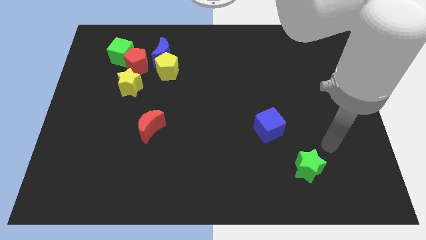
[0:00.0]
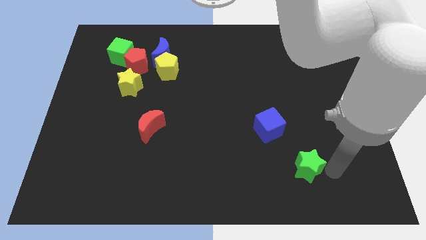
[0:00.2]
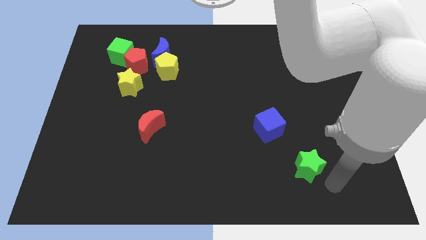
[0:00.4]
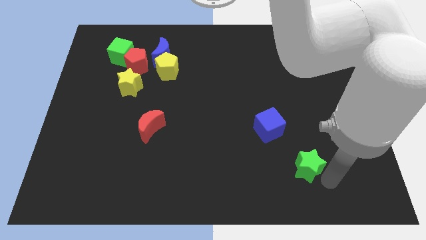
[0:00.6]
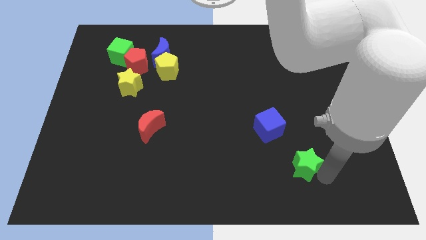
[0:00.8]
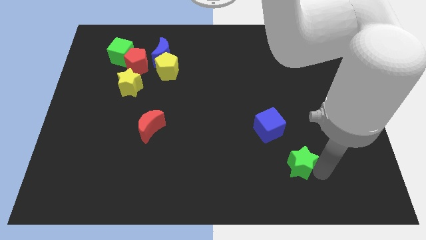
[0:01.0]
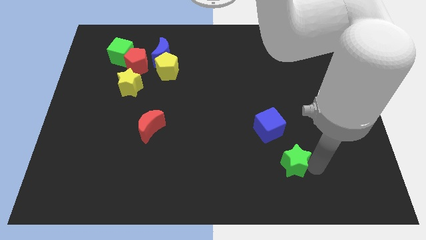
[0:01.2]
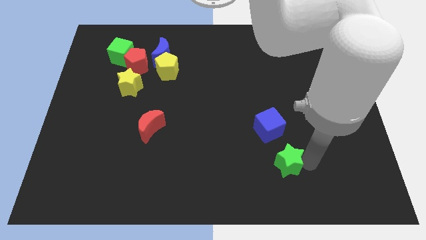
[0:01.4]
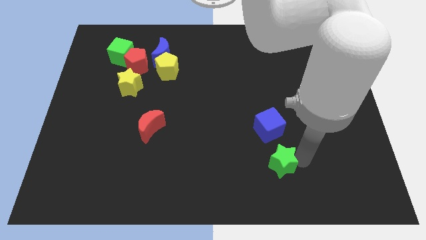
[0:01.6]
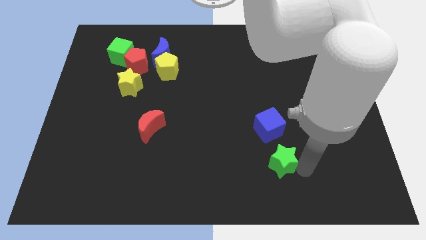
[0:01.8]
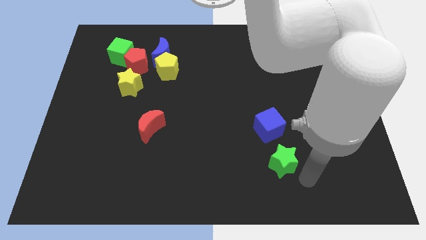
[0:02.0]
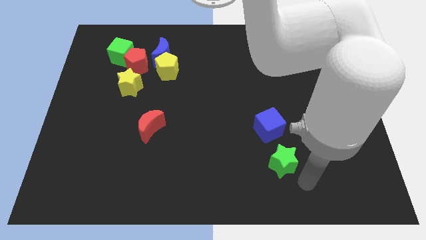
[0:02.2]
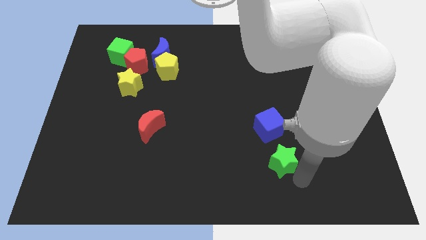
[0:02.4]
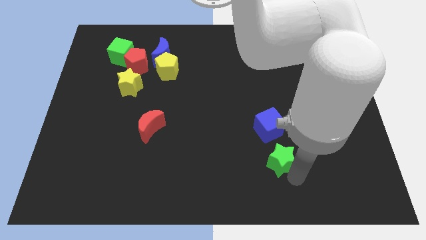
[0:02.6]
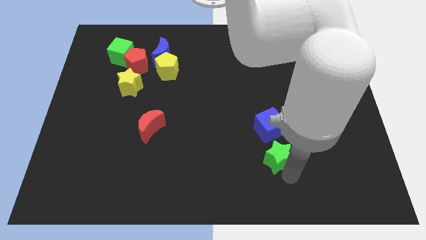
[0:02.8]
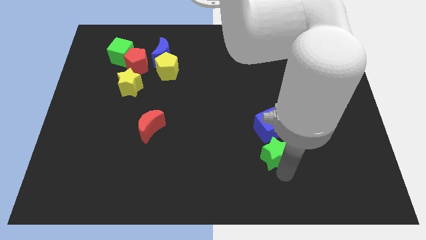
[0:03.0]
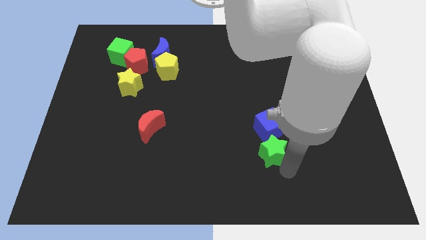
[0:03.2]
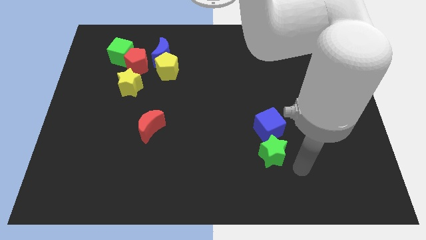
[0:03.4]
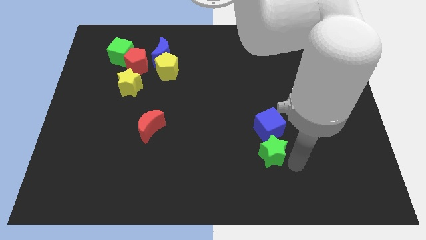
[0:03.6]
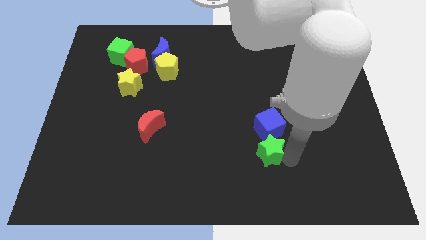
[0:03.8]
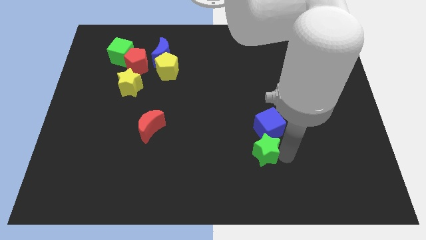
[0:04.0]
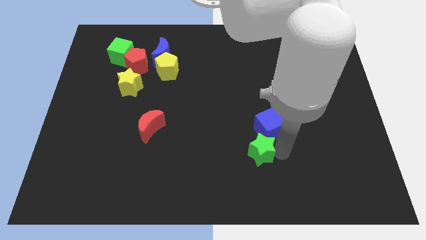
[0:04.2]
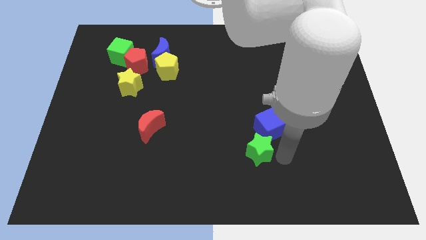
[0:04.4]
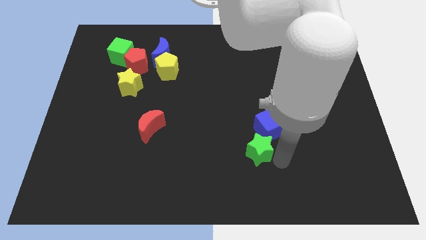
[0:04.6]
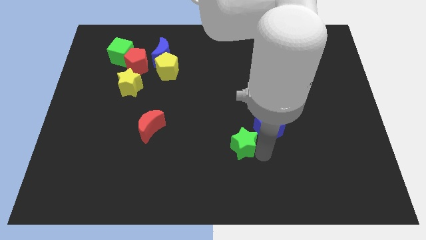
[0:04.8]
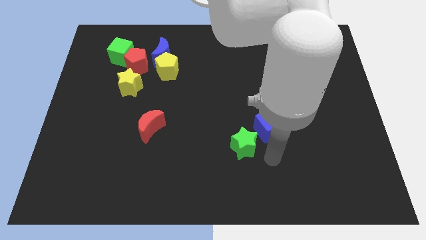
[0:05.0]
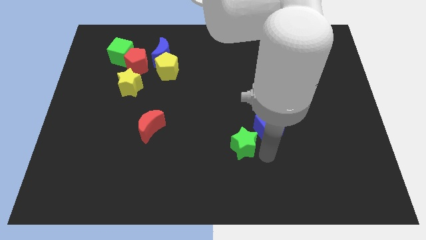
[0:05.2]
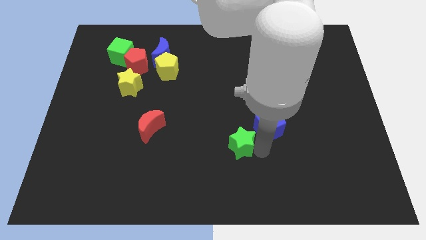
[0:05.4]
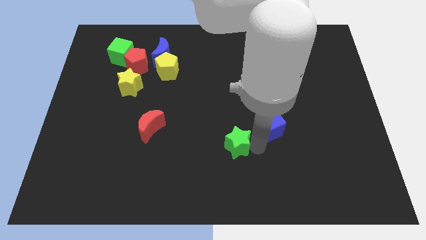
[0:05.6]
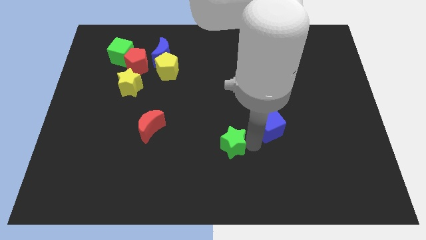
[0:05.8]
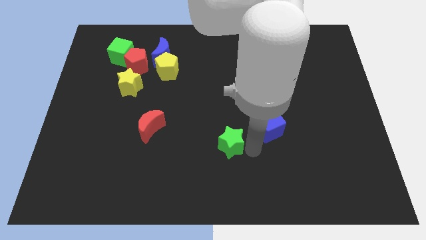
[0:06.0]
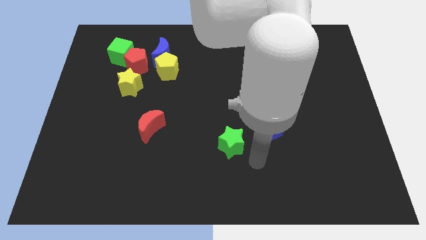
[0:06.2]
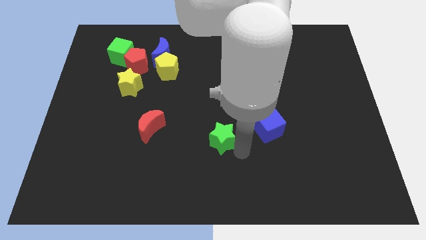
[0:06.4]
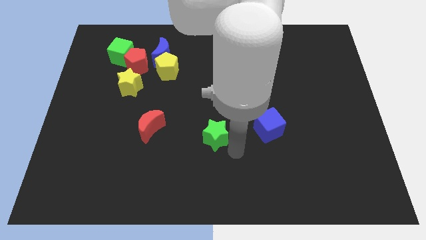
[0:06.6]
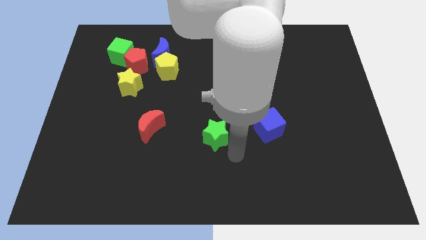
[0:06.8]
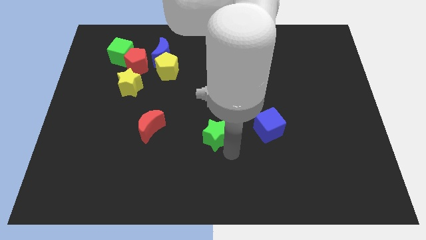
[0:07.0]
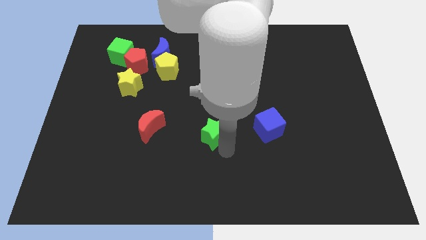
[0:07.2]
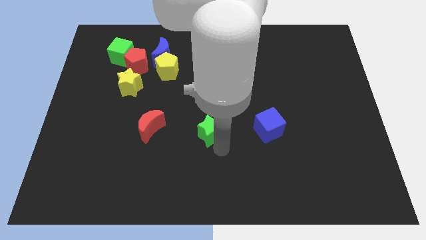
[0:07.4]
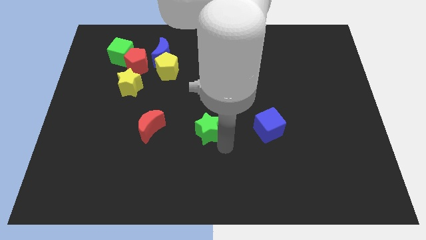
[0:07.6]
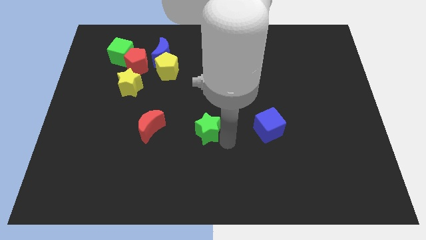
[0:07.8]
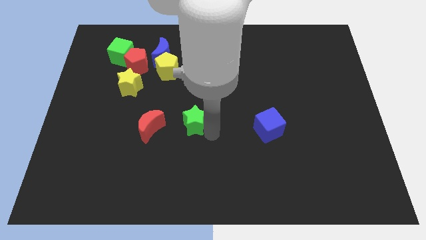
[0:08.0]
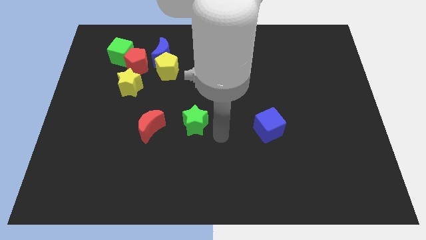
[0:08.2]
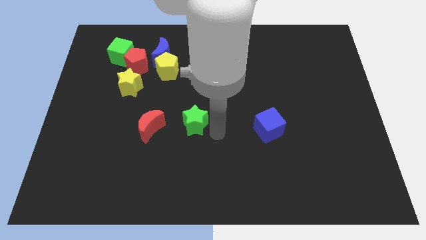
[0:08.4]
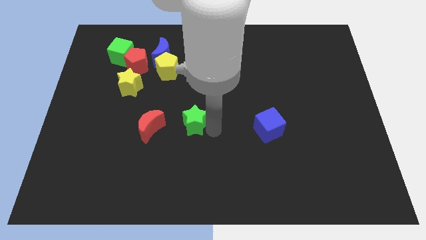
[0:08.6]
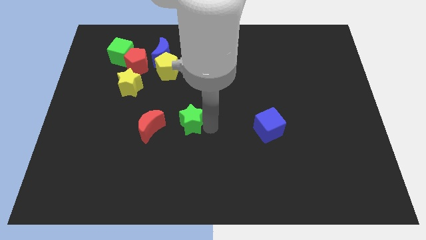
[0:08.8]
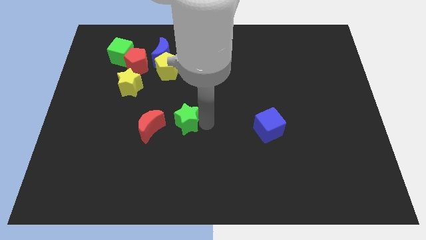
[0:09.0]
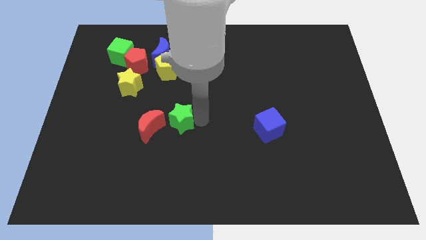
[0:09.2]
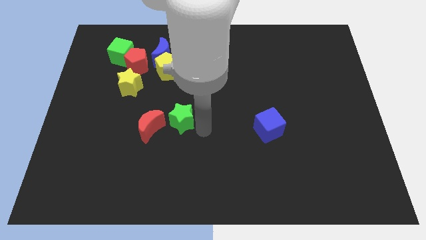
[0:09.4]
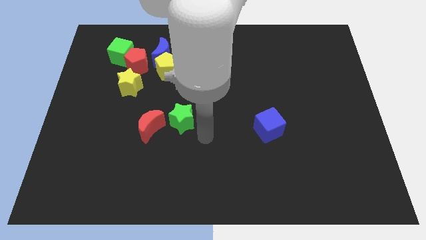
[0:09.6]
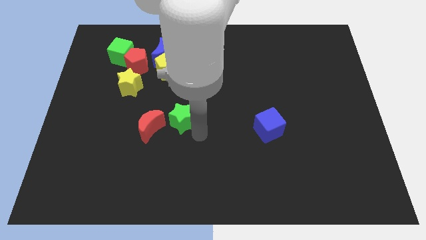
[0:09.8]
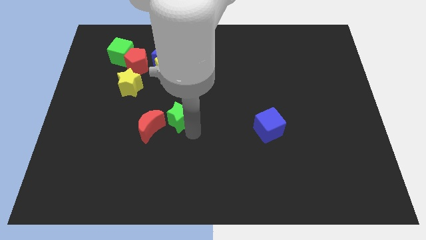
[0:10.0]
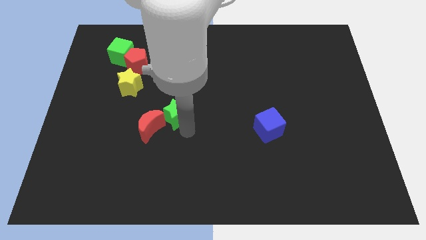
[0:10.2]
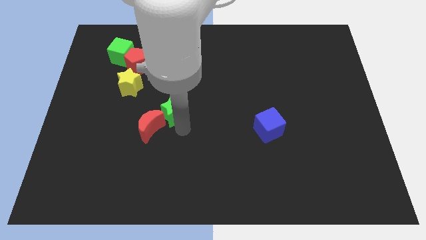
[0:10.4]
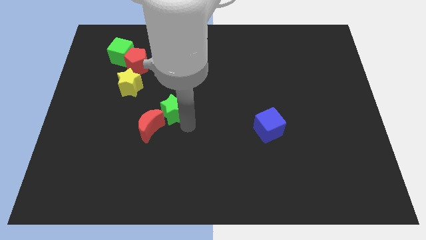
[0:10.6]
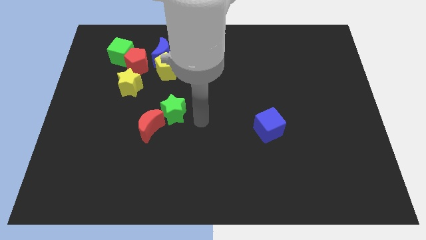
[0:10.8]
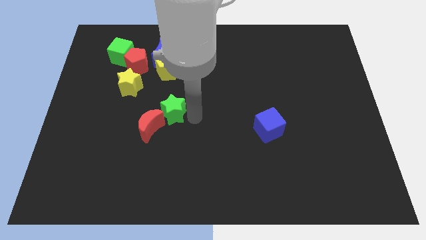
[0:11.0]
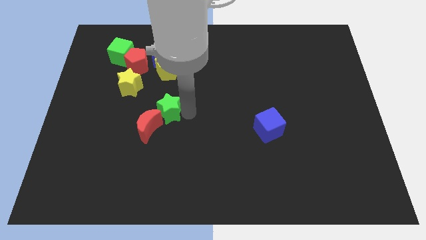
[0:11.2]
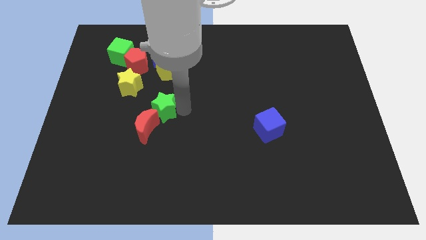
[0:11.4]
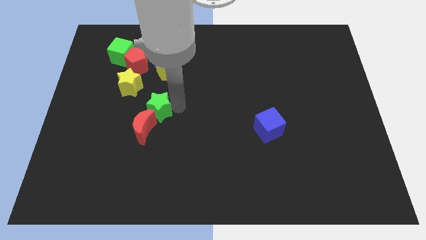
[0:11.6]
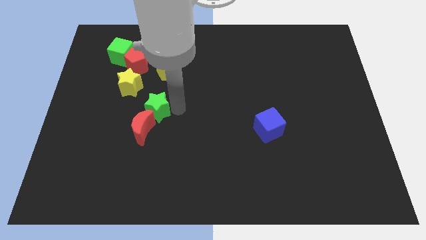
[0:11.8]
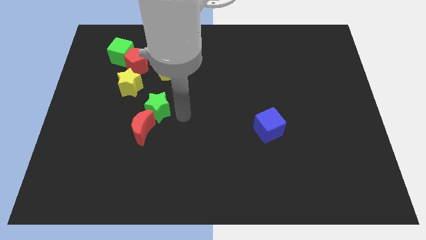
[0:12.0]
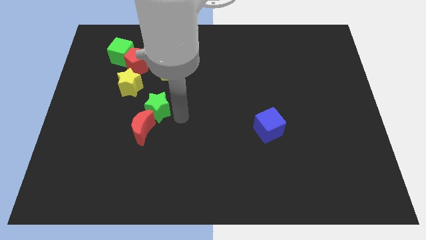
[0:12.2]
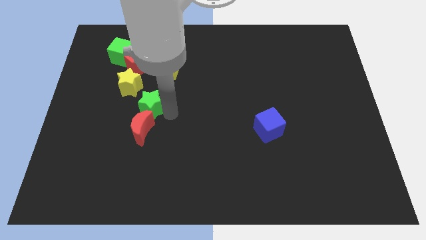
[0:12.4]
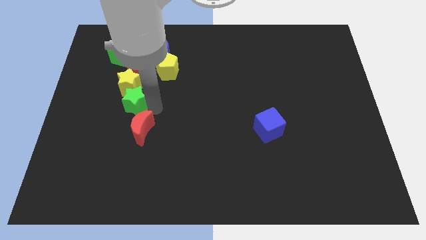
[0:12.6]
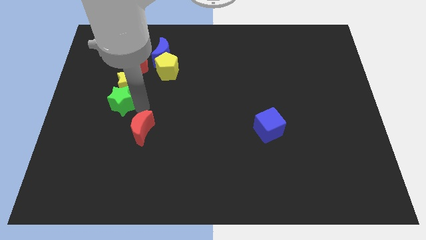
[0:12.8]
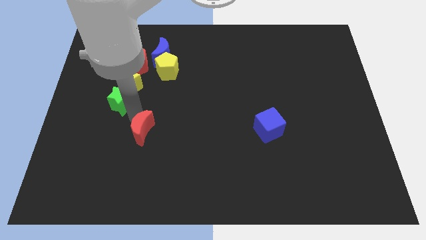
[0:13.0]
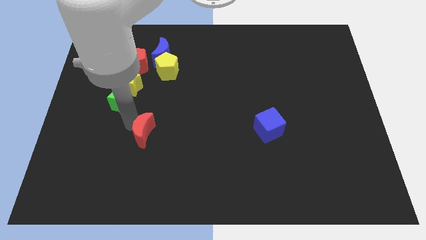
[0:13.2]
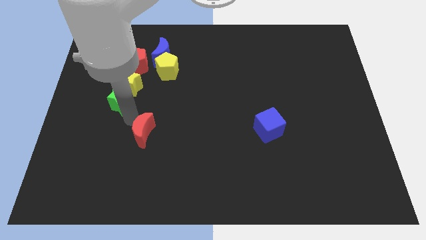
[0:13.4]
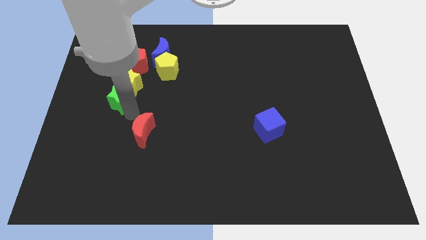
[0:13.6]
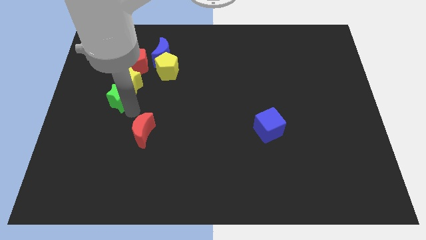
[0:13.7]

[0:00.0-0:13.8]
move the green star to the bottom of the green cube

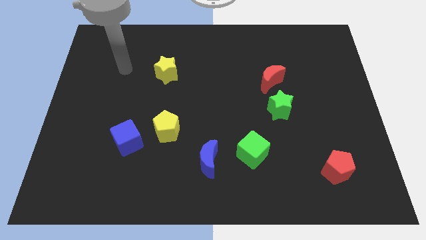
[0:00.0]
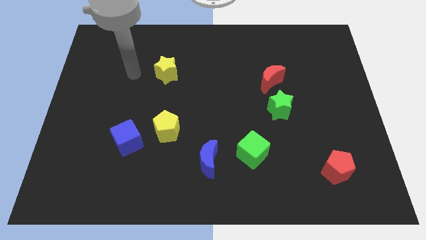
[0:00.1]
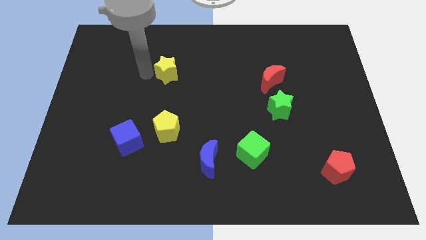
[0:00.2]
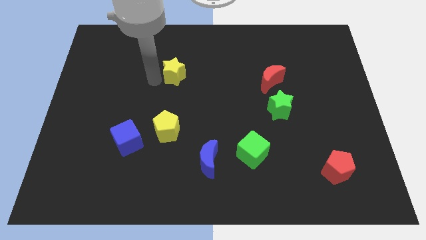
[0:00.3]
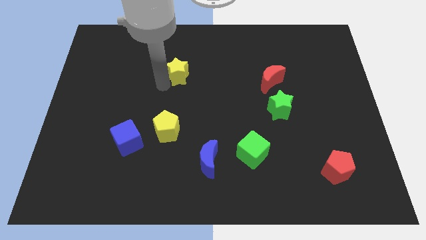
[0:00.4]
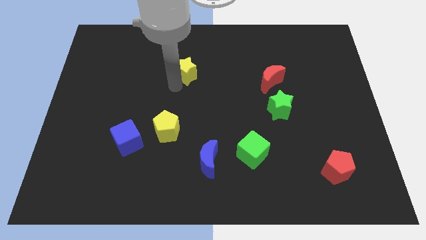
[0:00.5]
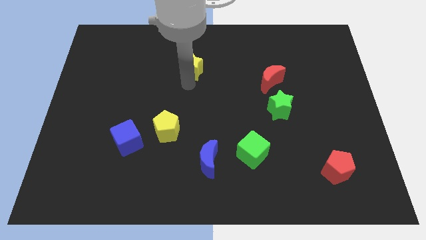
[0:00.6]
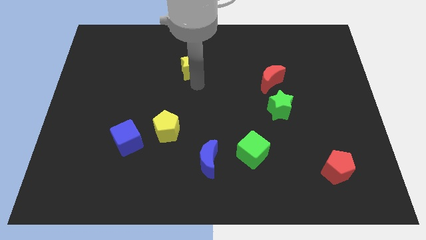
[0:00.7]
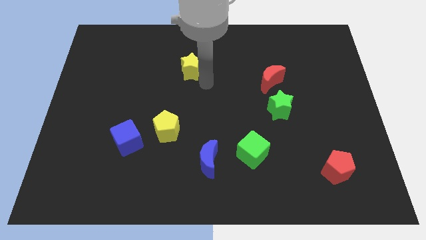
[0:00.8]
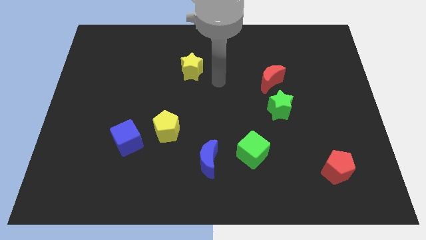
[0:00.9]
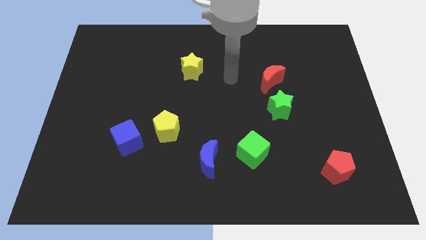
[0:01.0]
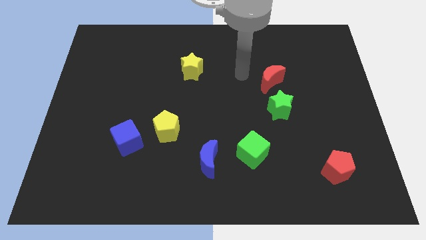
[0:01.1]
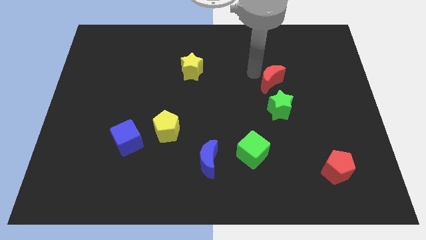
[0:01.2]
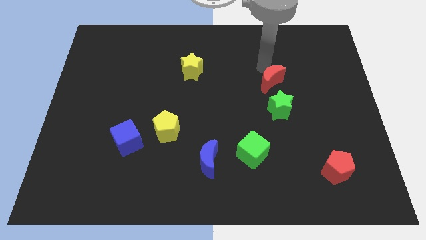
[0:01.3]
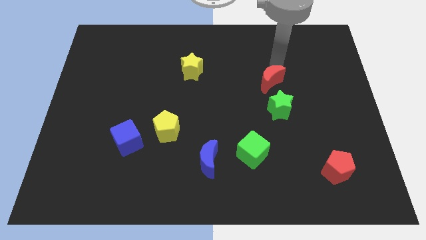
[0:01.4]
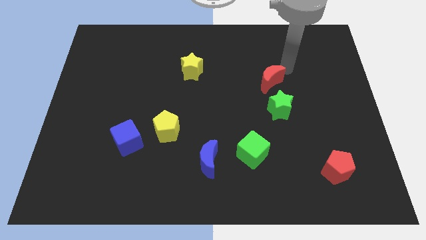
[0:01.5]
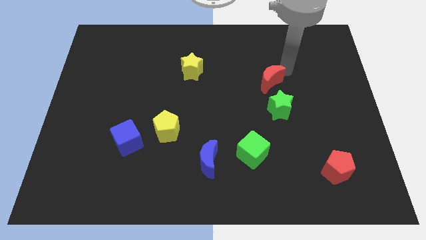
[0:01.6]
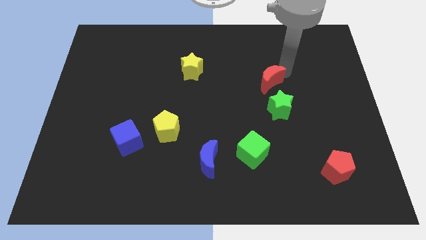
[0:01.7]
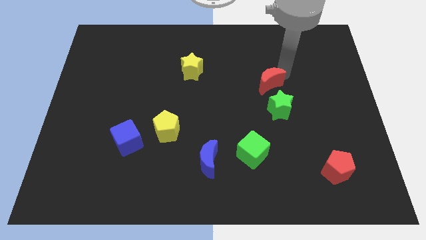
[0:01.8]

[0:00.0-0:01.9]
put the red moon to the top left side of the green star
